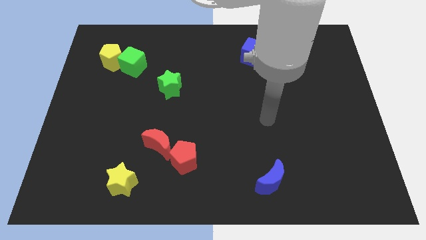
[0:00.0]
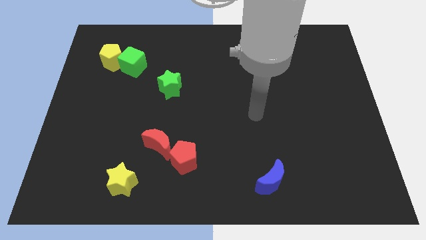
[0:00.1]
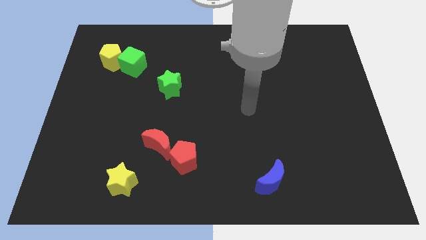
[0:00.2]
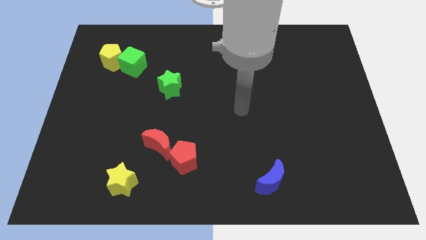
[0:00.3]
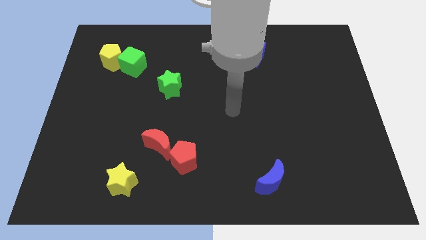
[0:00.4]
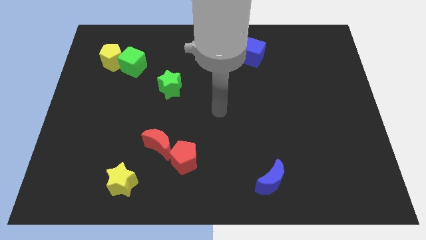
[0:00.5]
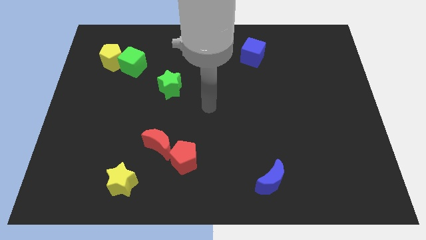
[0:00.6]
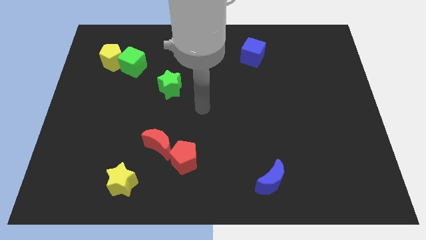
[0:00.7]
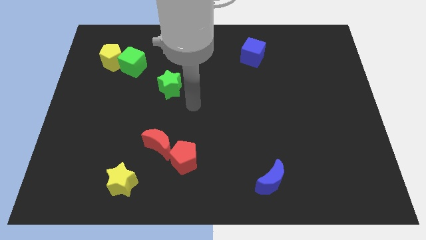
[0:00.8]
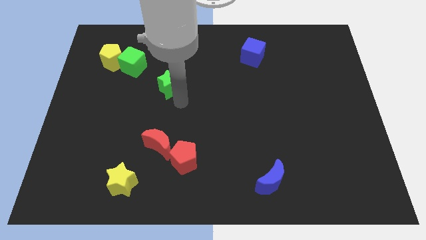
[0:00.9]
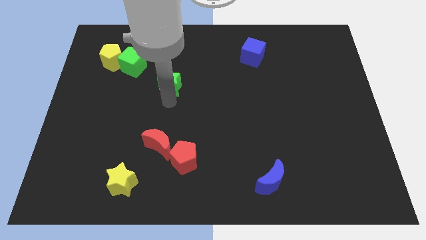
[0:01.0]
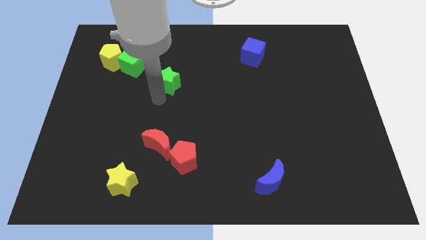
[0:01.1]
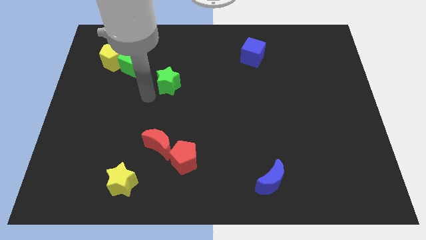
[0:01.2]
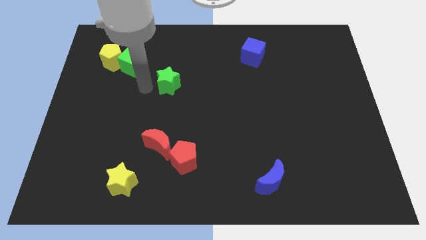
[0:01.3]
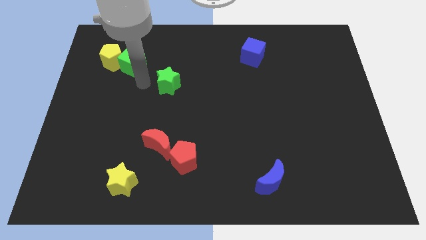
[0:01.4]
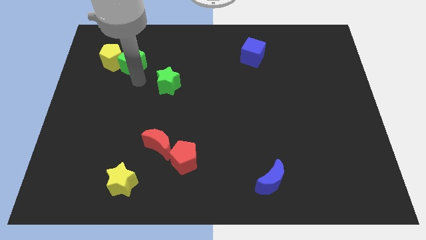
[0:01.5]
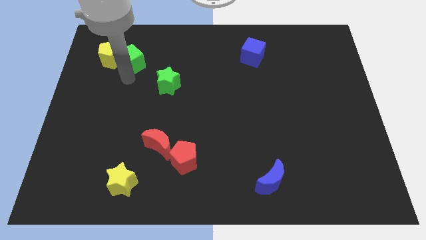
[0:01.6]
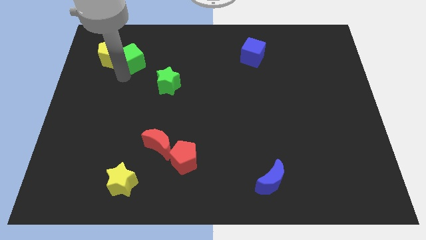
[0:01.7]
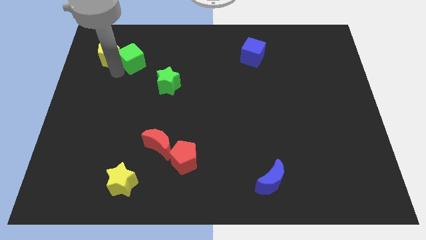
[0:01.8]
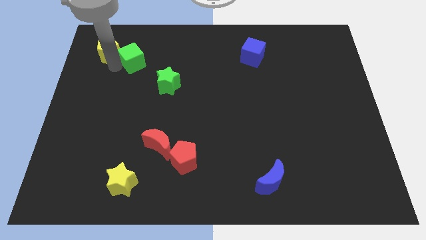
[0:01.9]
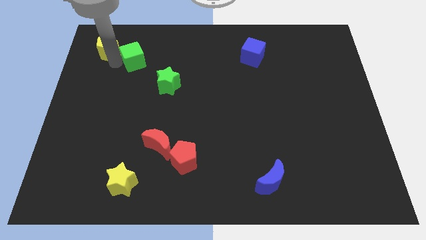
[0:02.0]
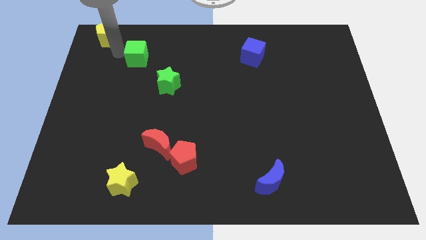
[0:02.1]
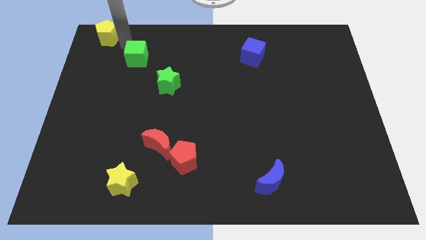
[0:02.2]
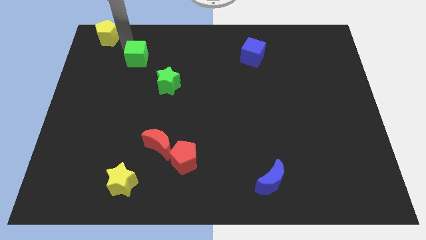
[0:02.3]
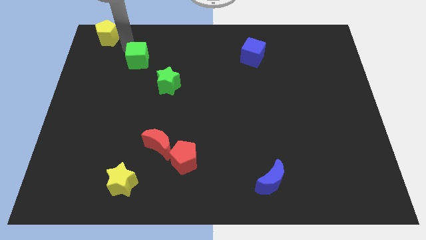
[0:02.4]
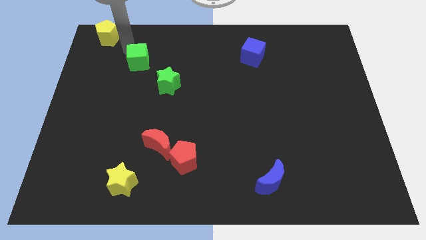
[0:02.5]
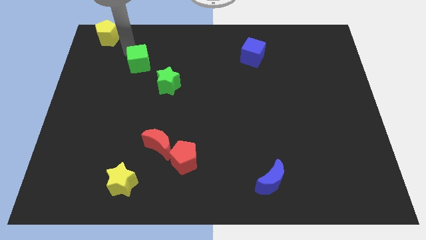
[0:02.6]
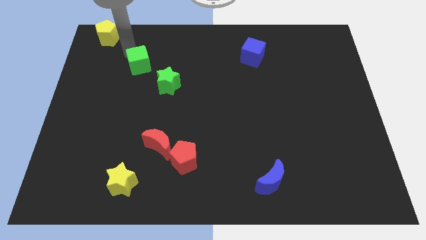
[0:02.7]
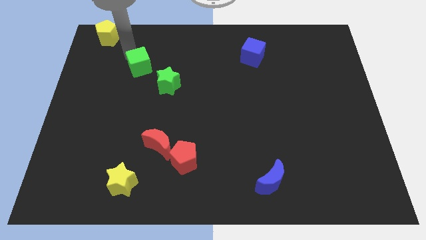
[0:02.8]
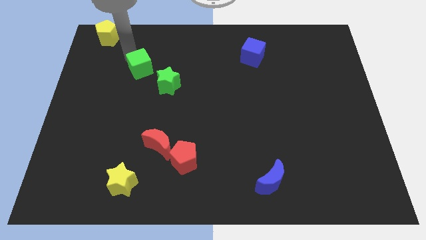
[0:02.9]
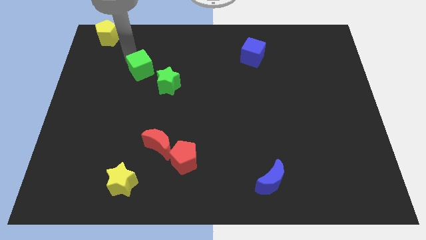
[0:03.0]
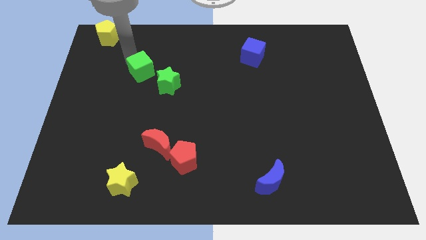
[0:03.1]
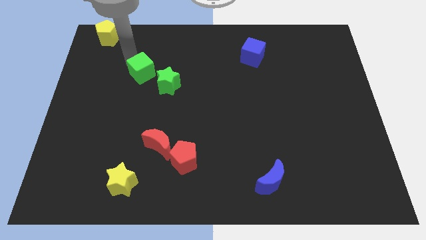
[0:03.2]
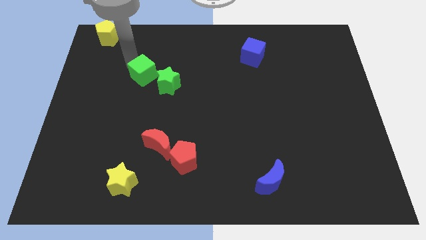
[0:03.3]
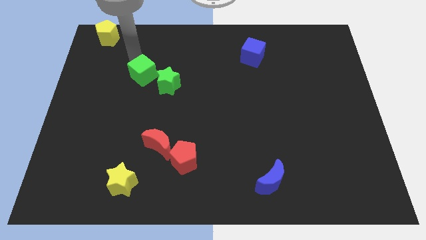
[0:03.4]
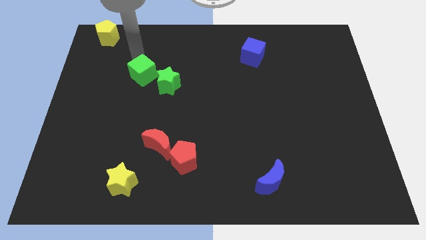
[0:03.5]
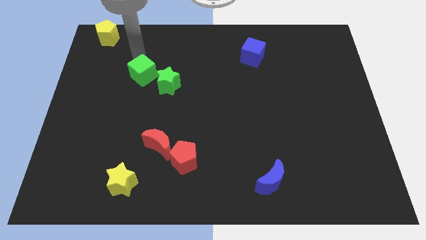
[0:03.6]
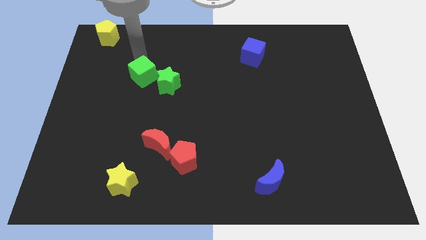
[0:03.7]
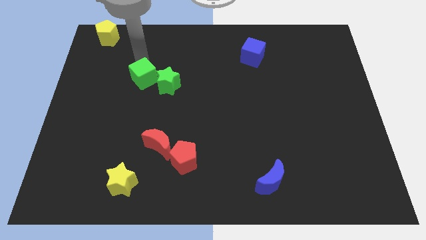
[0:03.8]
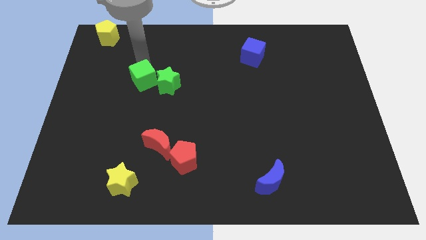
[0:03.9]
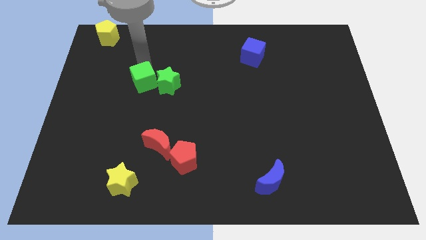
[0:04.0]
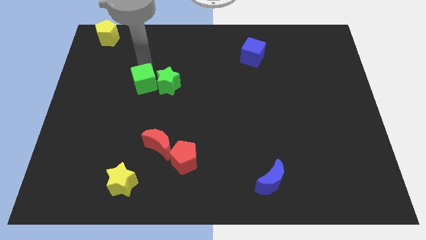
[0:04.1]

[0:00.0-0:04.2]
slide the green cube downwards and right diagonally a little

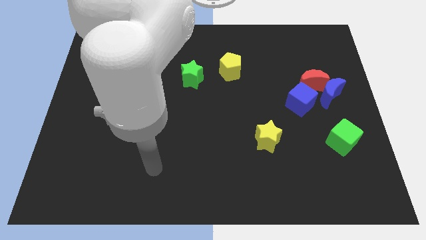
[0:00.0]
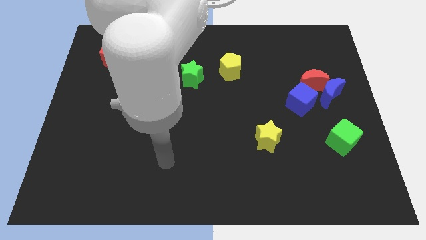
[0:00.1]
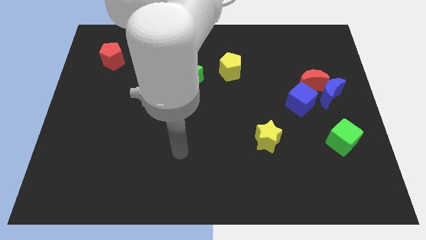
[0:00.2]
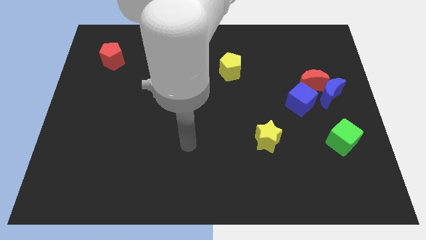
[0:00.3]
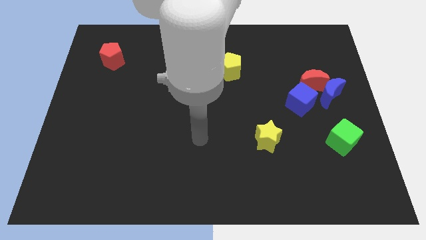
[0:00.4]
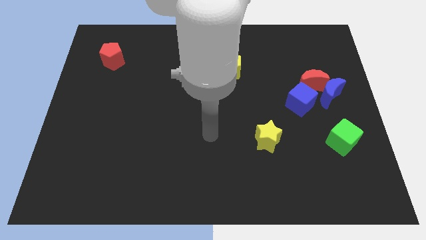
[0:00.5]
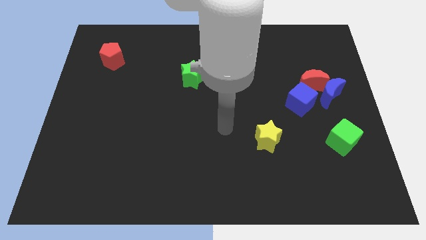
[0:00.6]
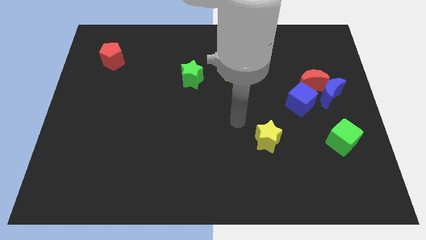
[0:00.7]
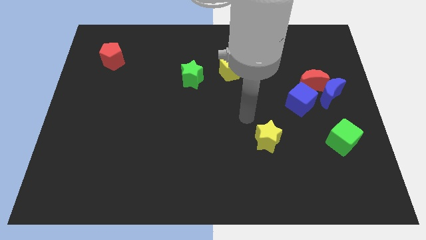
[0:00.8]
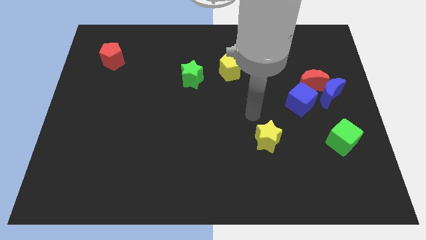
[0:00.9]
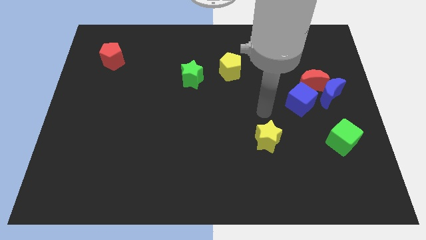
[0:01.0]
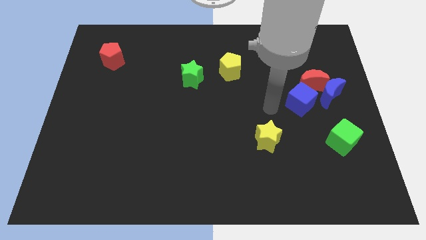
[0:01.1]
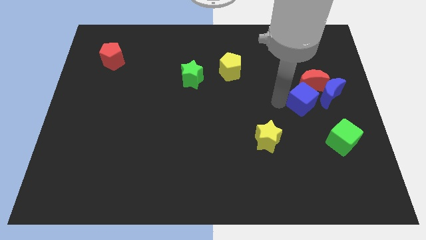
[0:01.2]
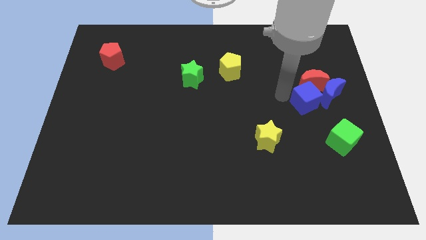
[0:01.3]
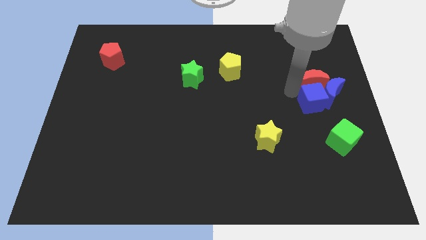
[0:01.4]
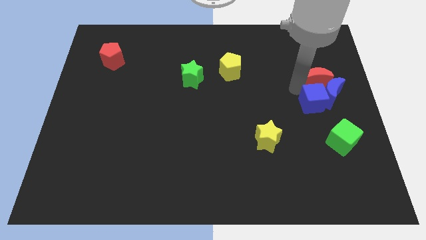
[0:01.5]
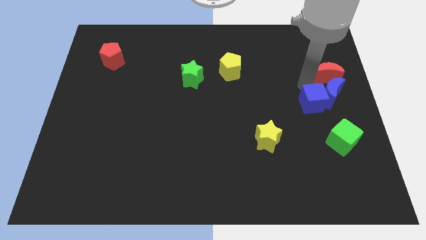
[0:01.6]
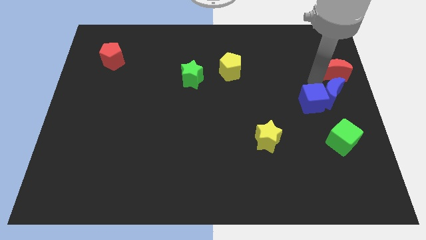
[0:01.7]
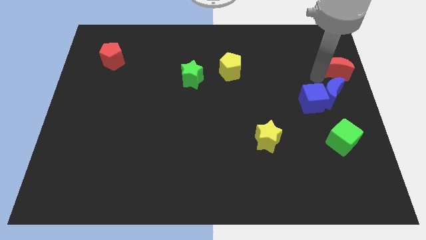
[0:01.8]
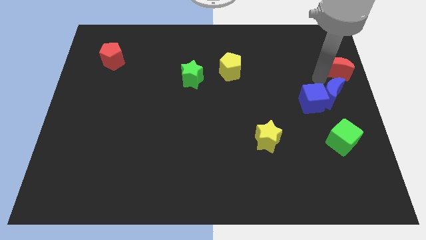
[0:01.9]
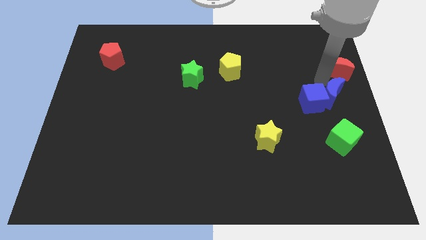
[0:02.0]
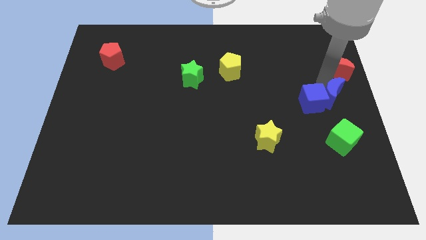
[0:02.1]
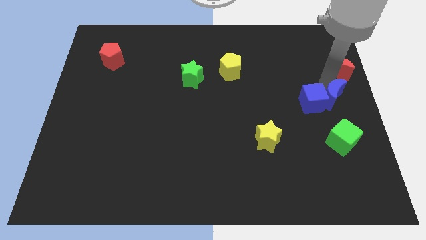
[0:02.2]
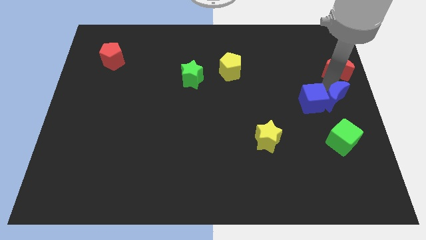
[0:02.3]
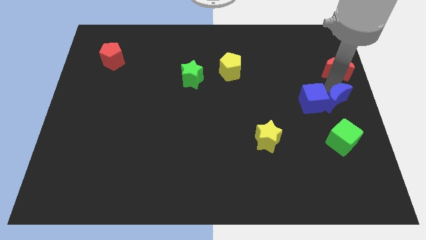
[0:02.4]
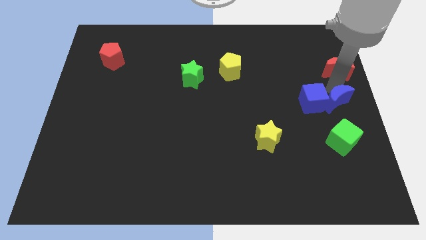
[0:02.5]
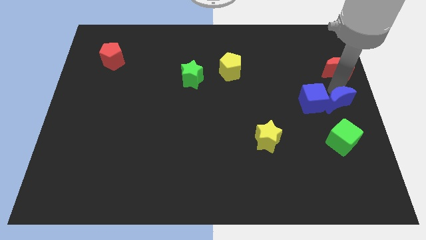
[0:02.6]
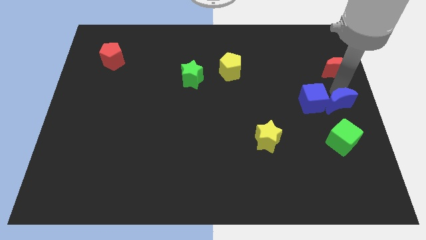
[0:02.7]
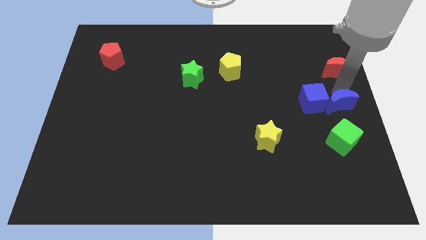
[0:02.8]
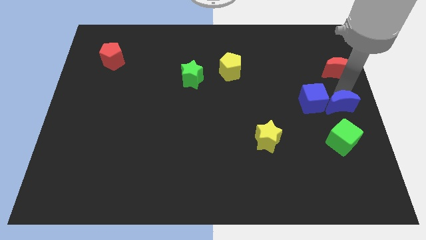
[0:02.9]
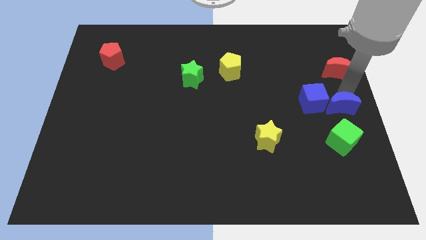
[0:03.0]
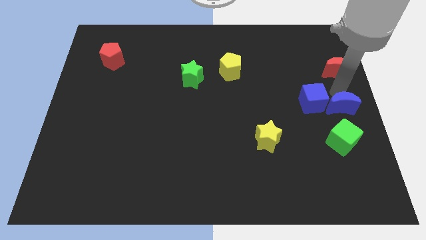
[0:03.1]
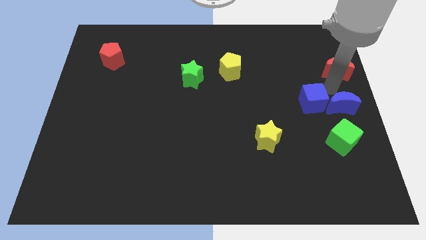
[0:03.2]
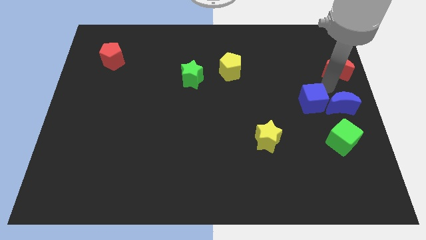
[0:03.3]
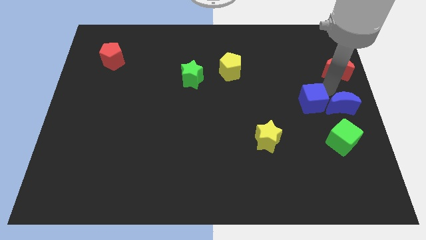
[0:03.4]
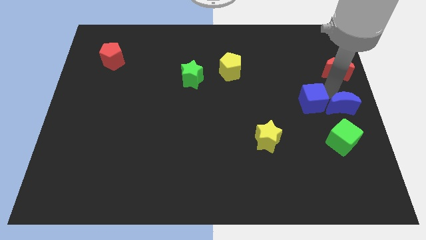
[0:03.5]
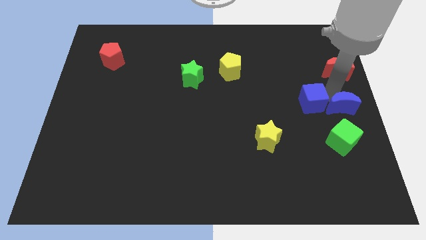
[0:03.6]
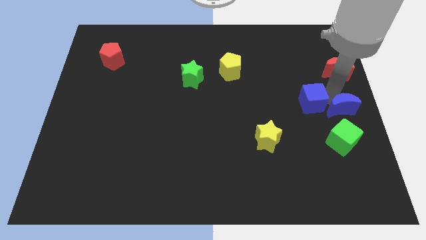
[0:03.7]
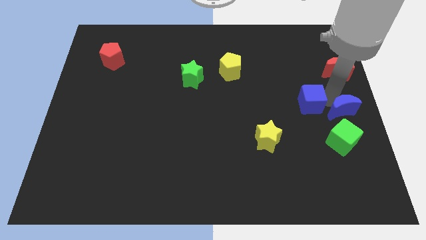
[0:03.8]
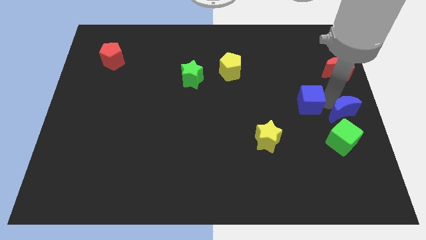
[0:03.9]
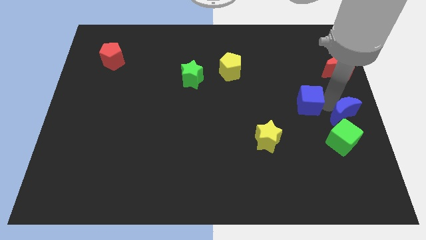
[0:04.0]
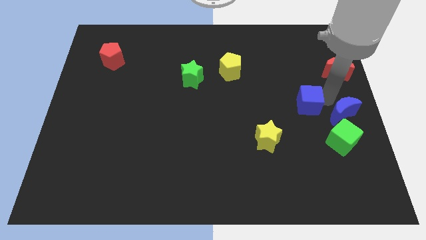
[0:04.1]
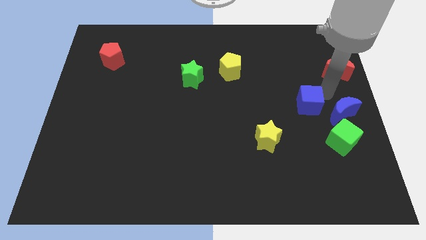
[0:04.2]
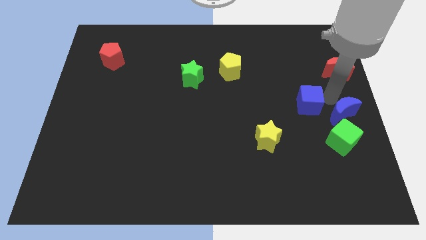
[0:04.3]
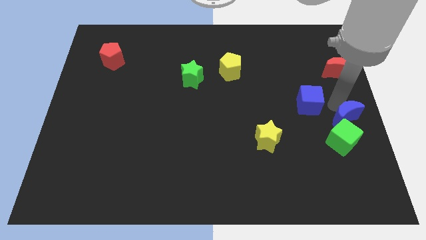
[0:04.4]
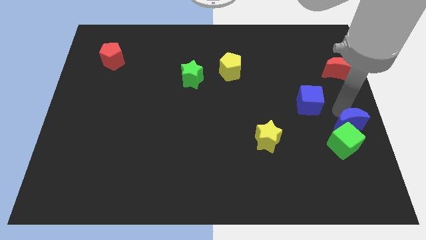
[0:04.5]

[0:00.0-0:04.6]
slightly move the blue moon downwards
